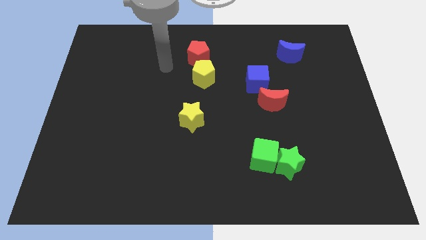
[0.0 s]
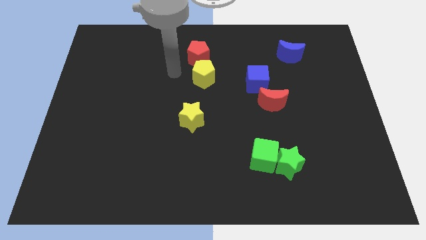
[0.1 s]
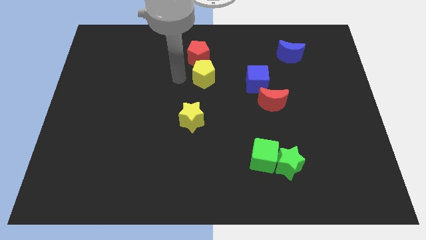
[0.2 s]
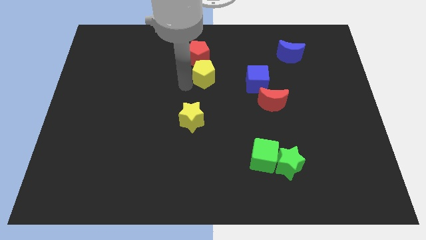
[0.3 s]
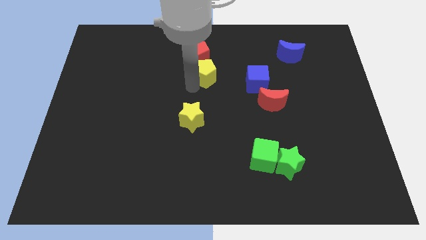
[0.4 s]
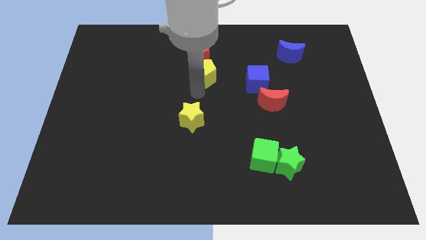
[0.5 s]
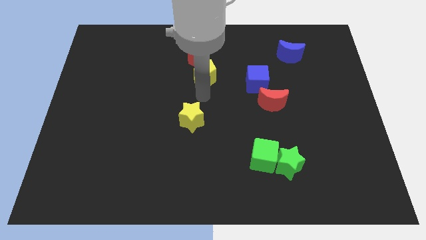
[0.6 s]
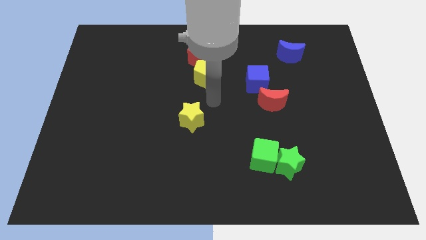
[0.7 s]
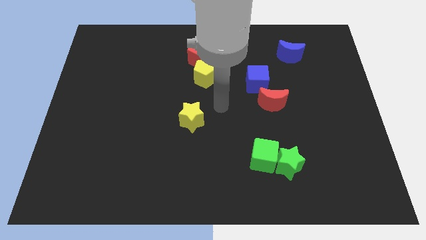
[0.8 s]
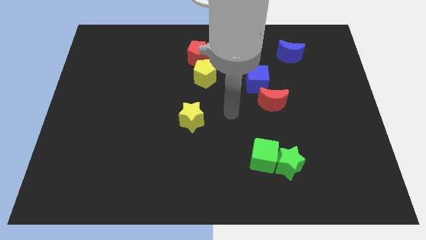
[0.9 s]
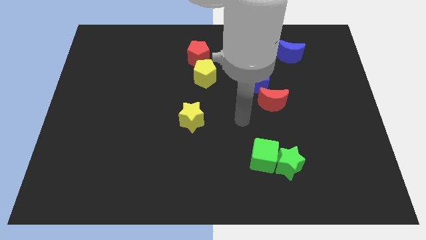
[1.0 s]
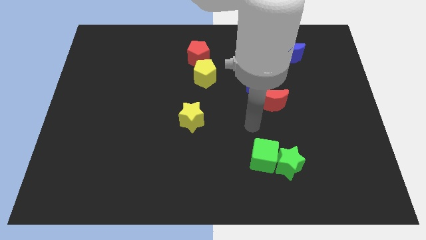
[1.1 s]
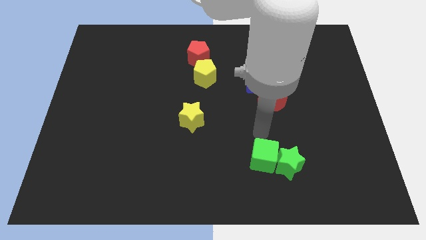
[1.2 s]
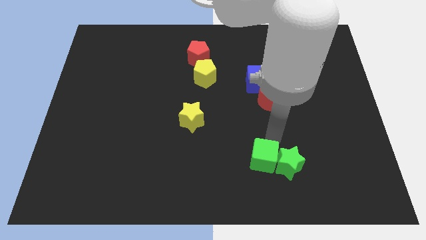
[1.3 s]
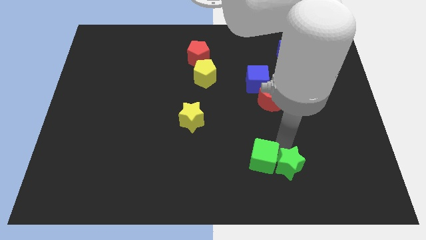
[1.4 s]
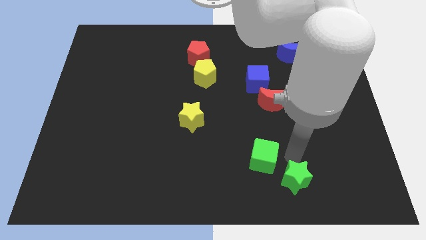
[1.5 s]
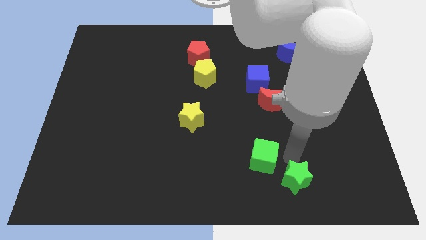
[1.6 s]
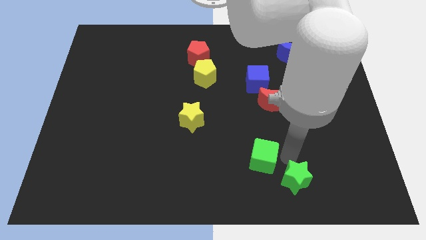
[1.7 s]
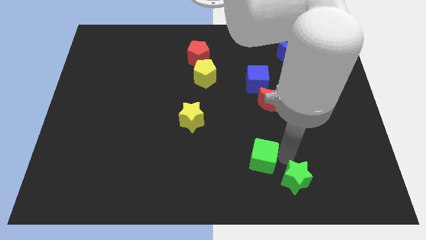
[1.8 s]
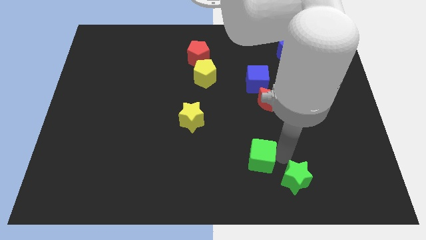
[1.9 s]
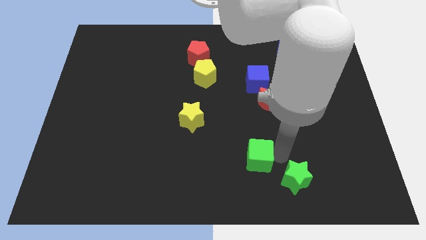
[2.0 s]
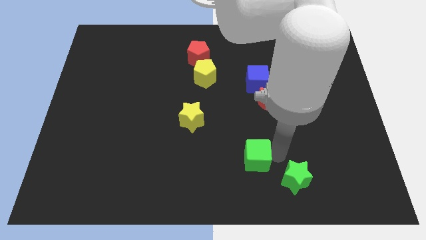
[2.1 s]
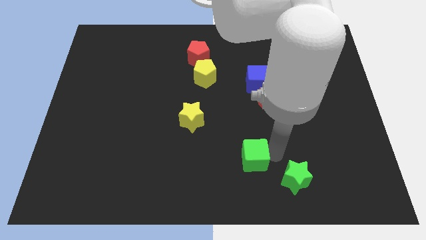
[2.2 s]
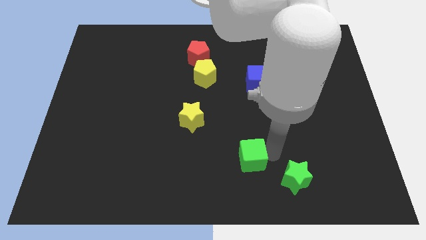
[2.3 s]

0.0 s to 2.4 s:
move the green cube away from the green star

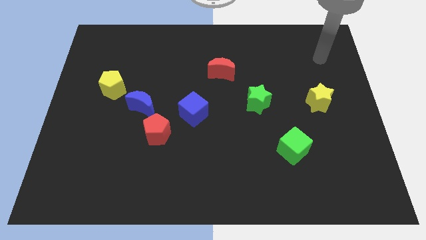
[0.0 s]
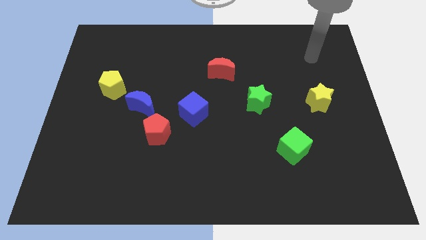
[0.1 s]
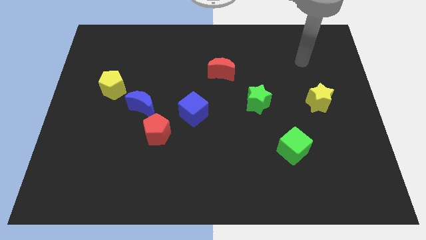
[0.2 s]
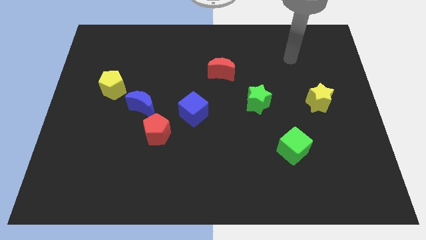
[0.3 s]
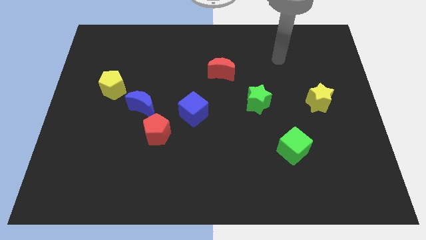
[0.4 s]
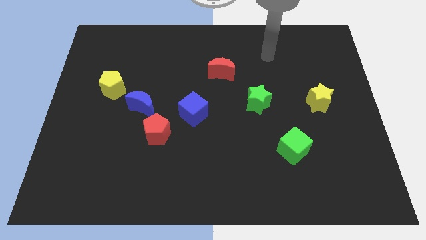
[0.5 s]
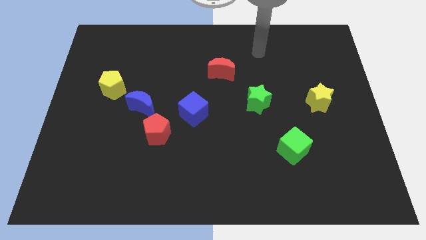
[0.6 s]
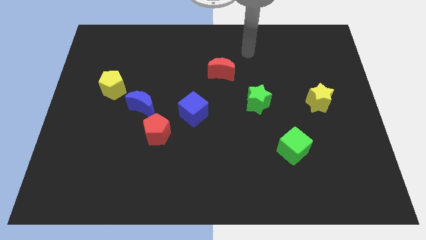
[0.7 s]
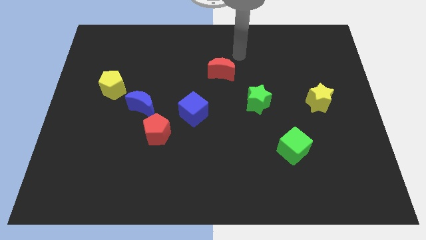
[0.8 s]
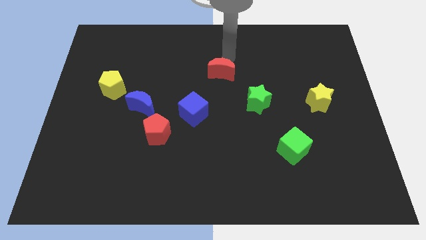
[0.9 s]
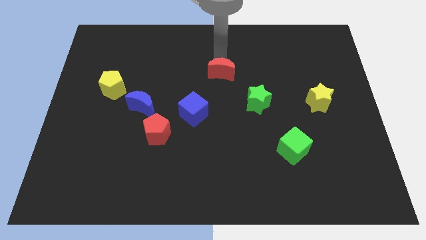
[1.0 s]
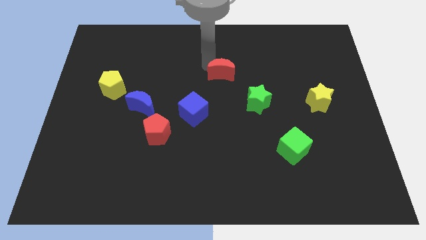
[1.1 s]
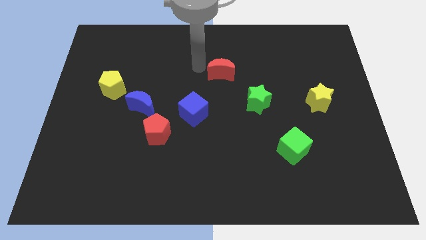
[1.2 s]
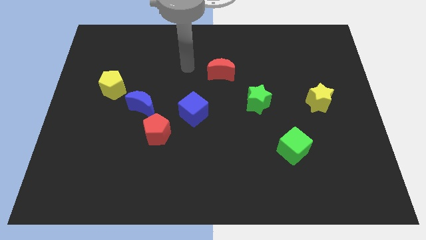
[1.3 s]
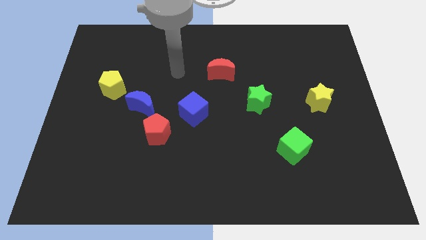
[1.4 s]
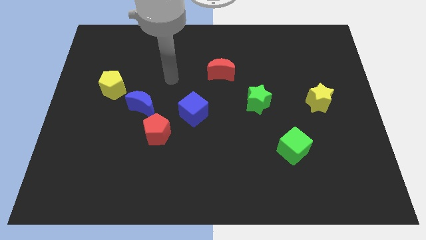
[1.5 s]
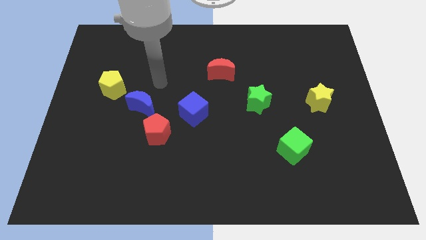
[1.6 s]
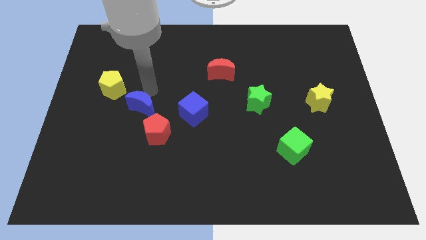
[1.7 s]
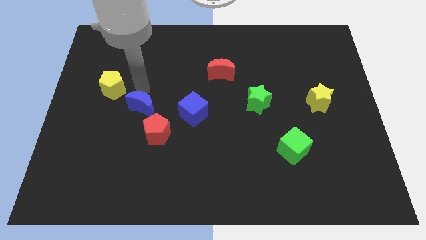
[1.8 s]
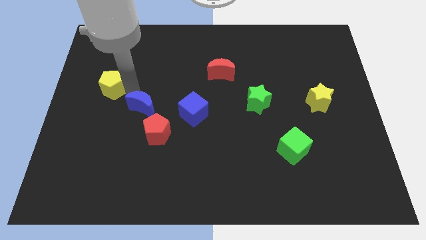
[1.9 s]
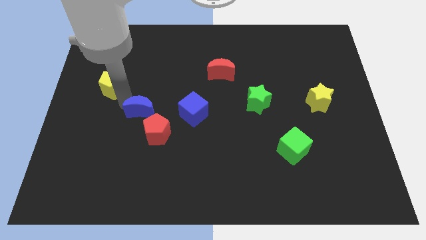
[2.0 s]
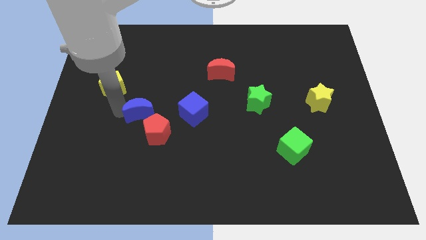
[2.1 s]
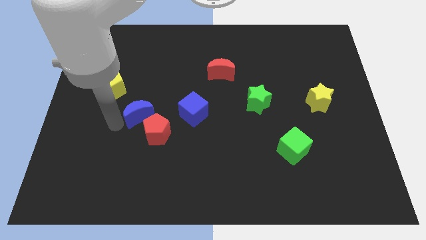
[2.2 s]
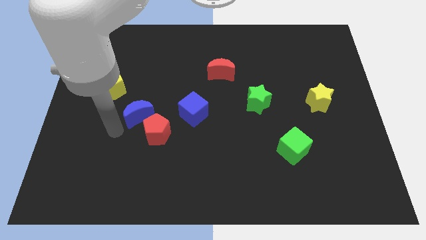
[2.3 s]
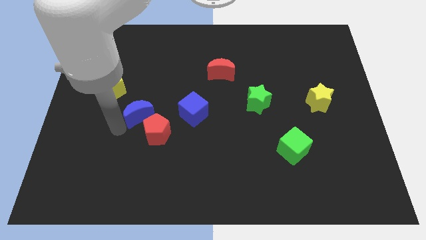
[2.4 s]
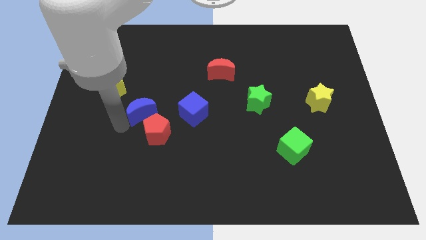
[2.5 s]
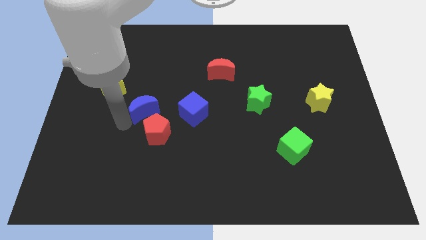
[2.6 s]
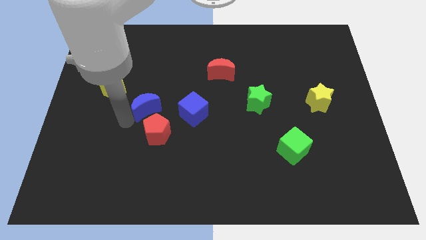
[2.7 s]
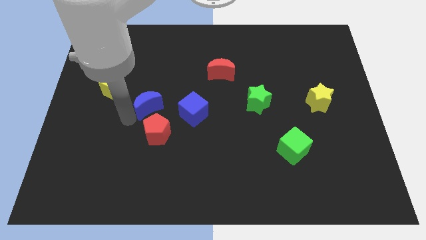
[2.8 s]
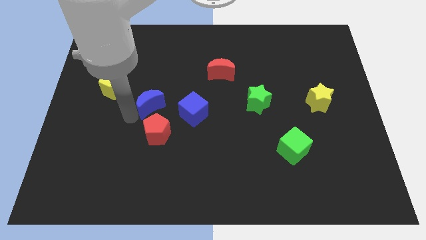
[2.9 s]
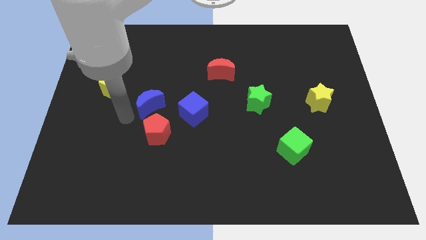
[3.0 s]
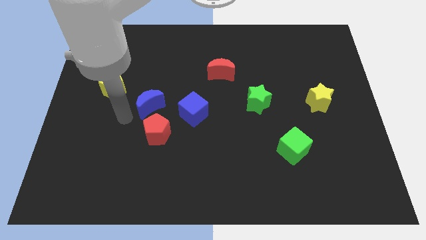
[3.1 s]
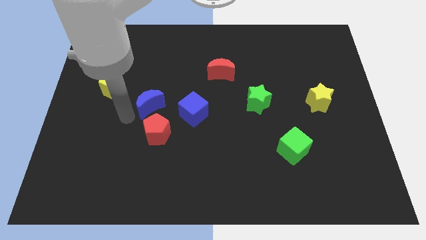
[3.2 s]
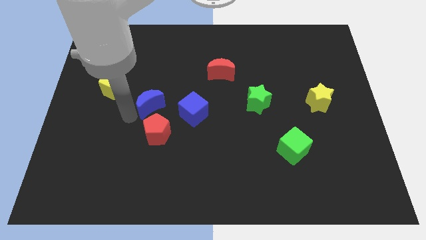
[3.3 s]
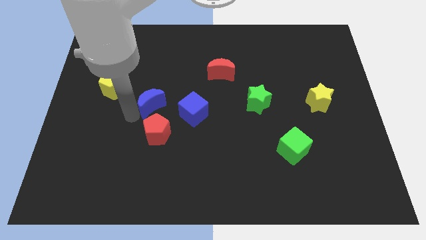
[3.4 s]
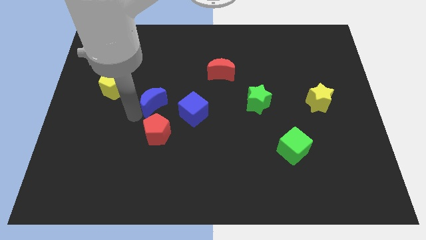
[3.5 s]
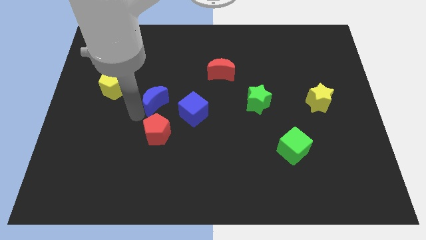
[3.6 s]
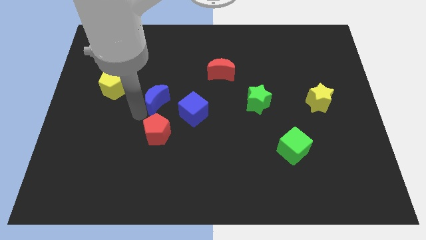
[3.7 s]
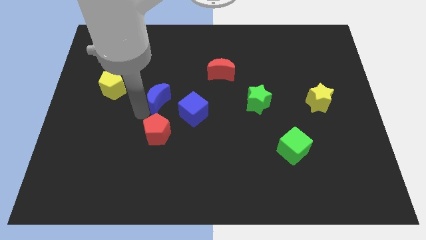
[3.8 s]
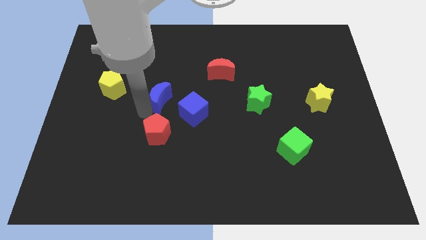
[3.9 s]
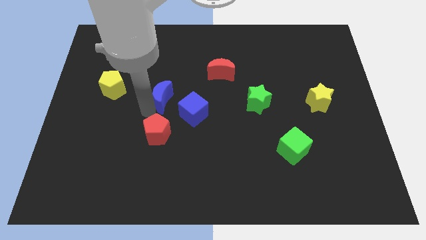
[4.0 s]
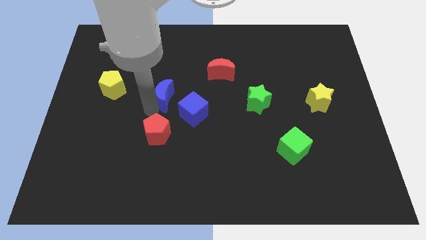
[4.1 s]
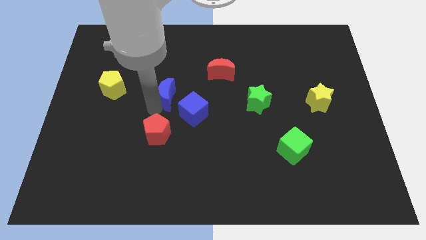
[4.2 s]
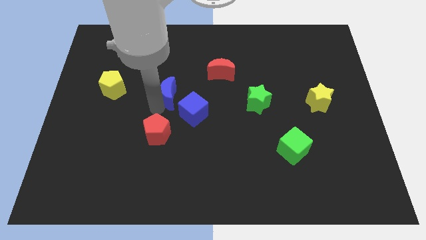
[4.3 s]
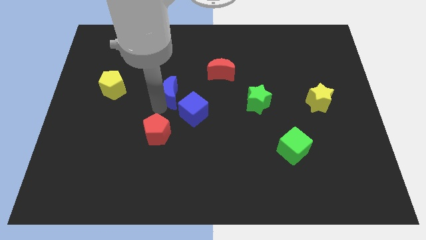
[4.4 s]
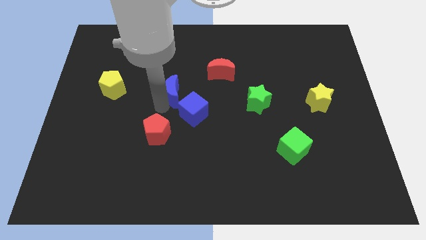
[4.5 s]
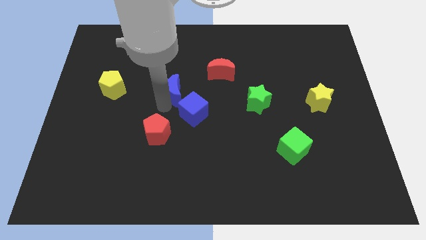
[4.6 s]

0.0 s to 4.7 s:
move the blue moon away from the red pentagon and yellow pentagon

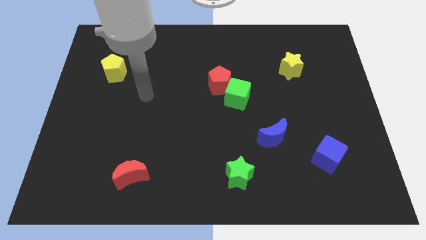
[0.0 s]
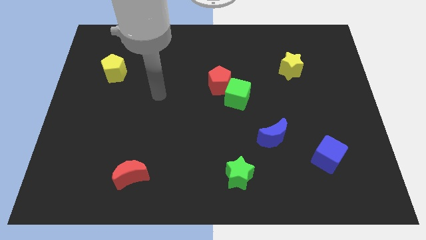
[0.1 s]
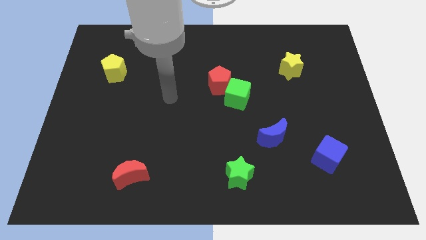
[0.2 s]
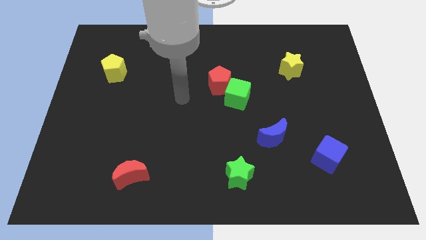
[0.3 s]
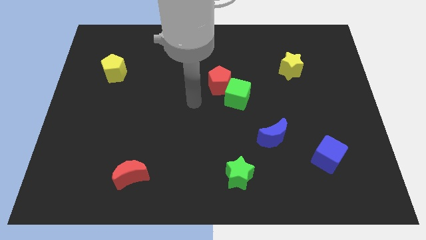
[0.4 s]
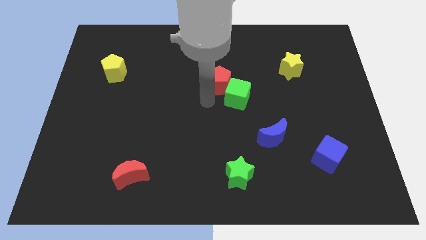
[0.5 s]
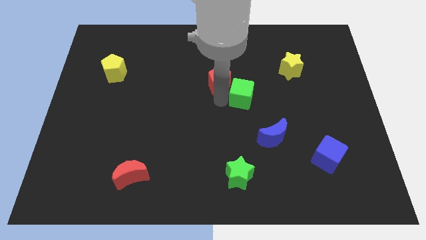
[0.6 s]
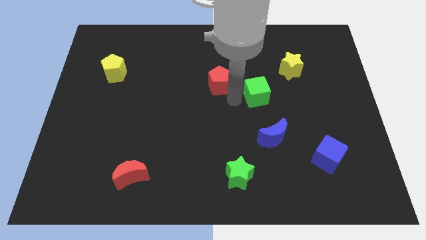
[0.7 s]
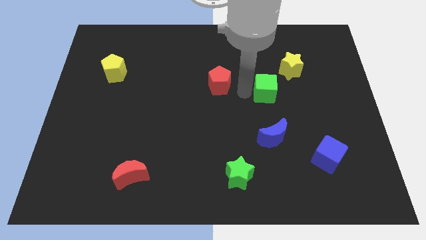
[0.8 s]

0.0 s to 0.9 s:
move the red pentagon away from the green cube

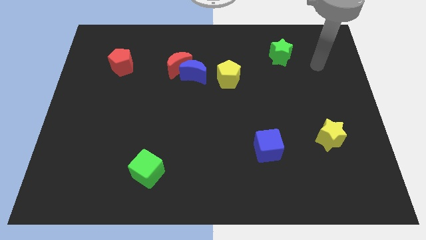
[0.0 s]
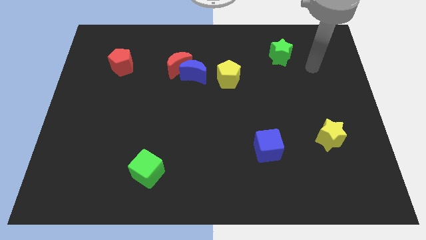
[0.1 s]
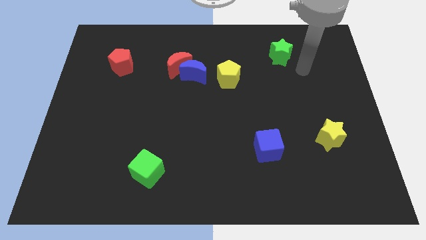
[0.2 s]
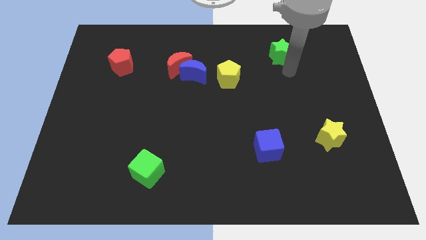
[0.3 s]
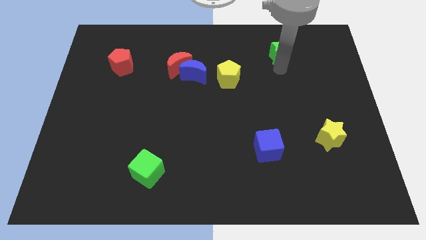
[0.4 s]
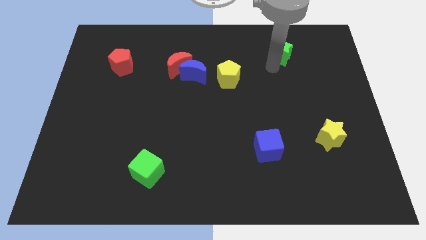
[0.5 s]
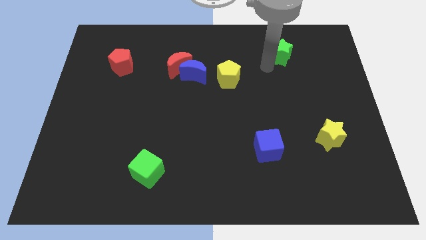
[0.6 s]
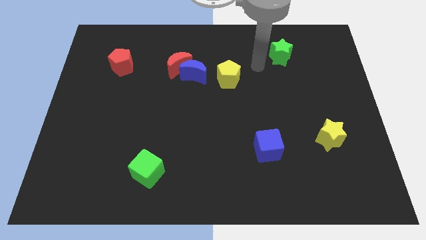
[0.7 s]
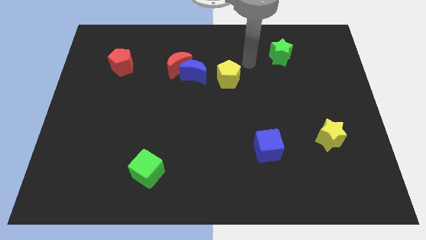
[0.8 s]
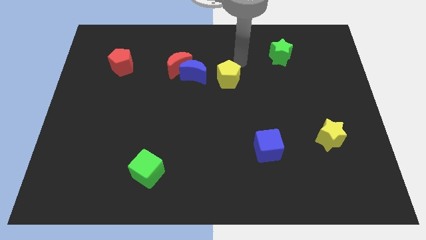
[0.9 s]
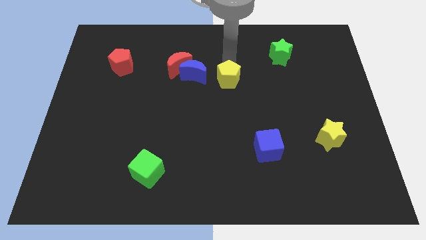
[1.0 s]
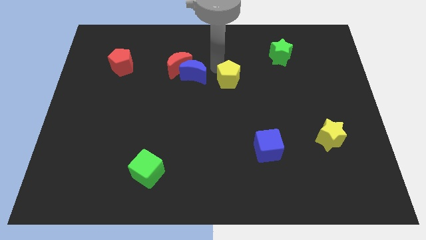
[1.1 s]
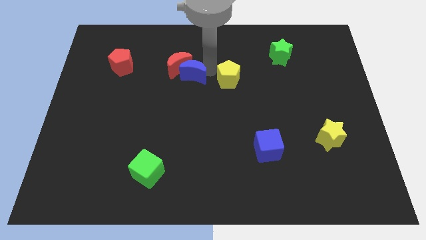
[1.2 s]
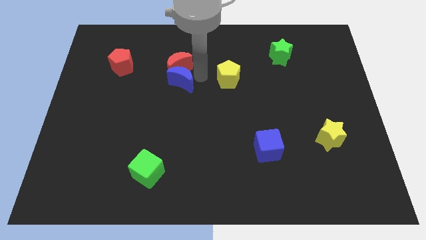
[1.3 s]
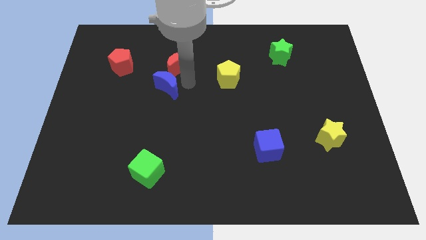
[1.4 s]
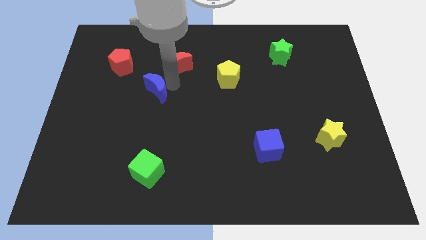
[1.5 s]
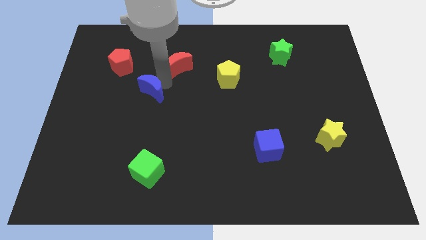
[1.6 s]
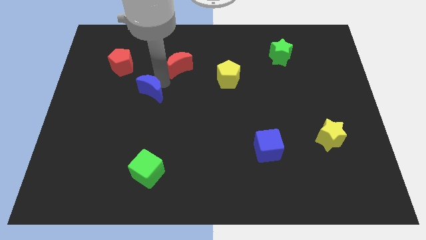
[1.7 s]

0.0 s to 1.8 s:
pull the red moon apart from the blue moon
